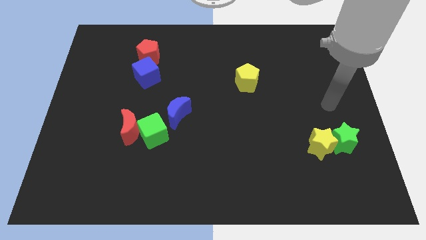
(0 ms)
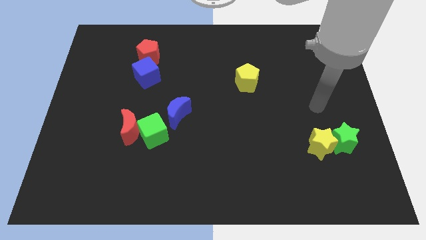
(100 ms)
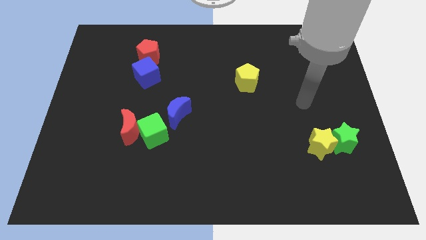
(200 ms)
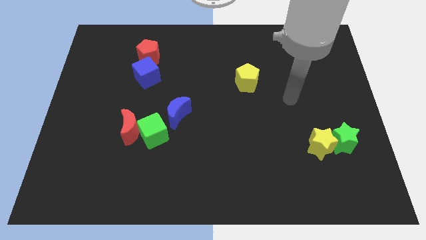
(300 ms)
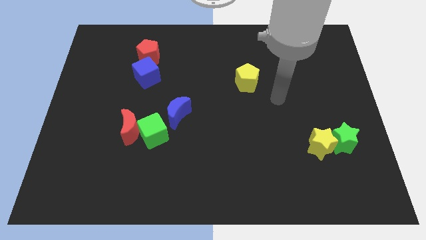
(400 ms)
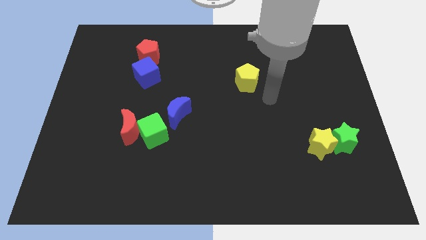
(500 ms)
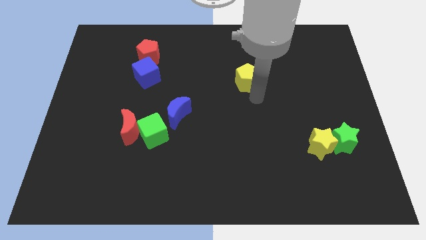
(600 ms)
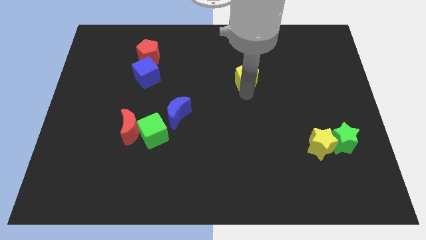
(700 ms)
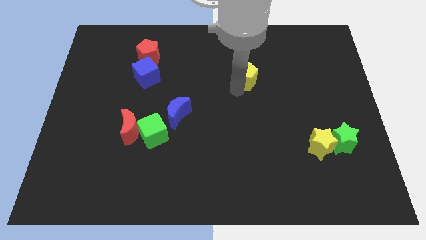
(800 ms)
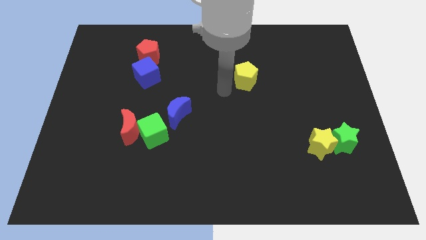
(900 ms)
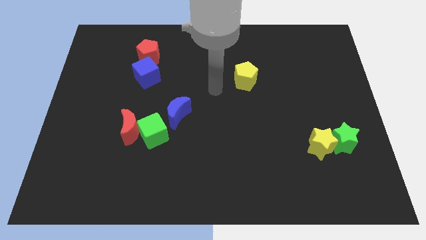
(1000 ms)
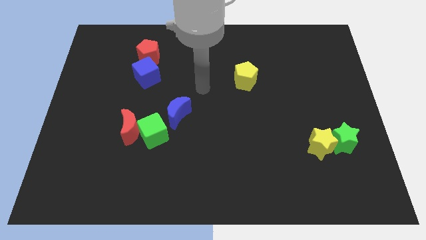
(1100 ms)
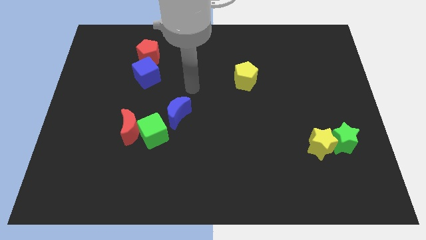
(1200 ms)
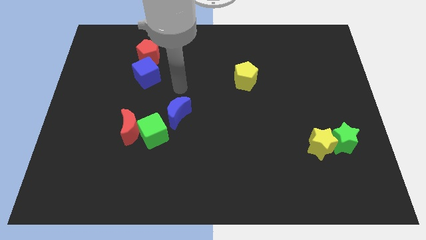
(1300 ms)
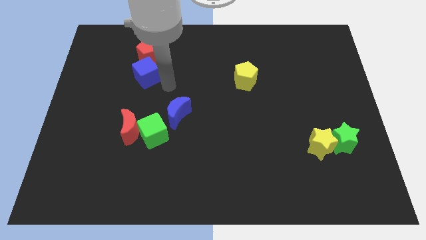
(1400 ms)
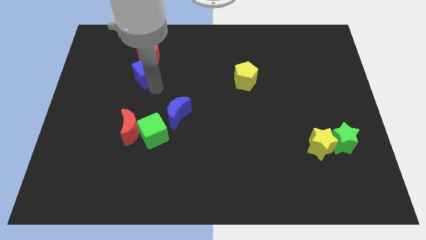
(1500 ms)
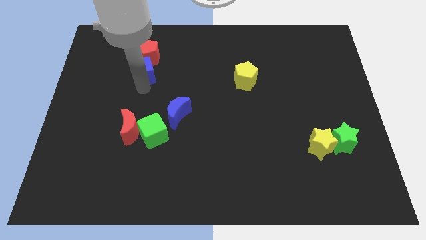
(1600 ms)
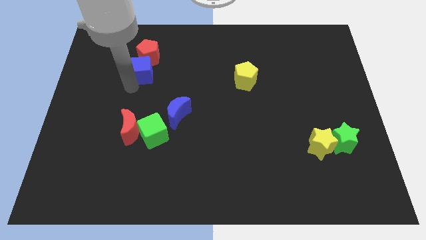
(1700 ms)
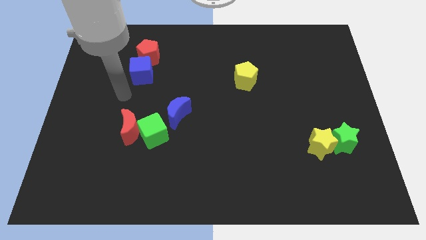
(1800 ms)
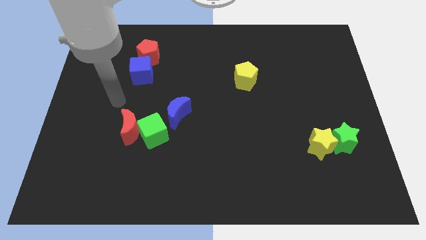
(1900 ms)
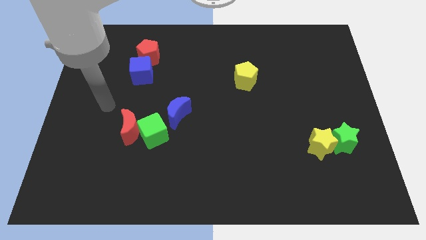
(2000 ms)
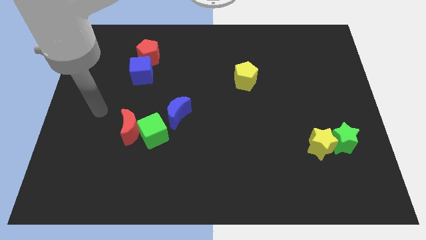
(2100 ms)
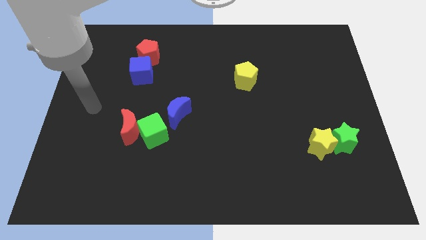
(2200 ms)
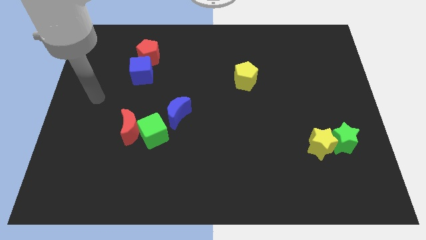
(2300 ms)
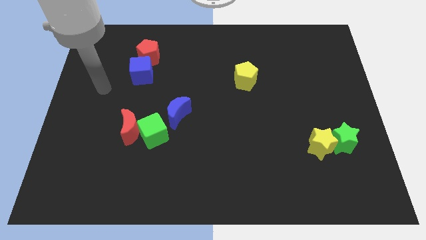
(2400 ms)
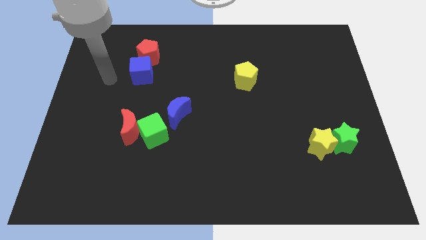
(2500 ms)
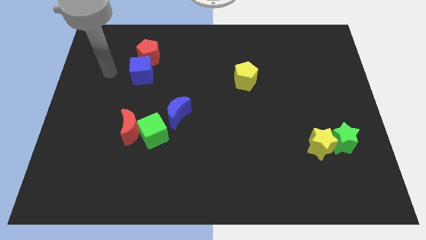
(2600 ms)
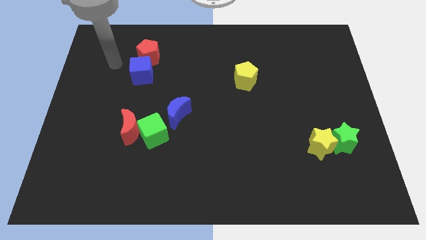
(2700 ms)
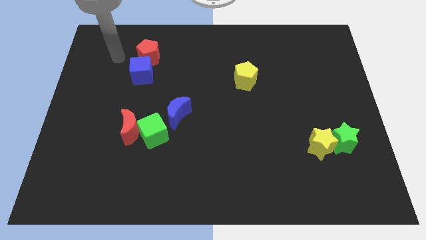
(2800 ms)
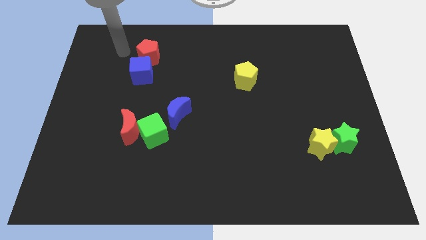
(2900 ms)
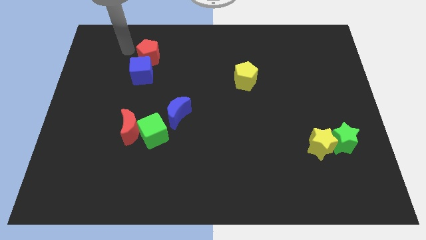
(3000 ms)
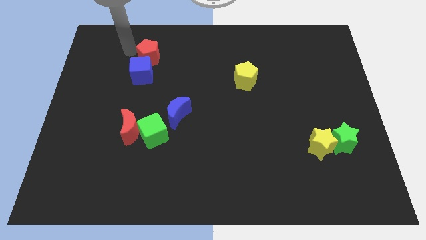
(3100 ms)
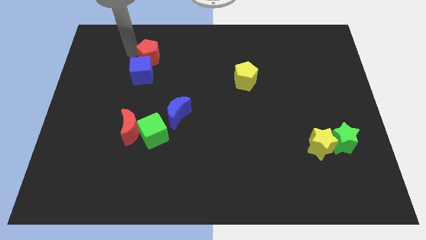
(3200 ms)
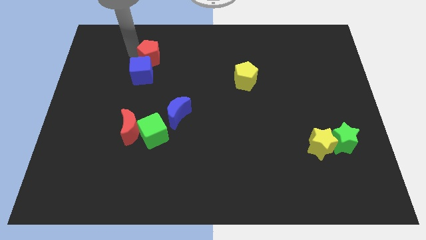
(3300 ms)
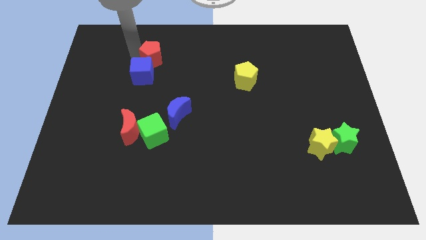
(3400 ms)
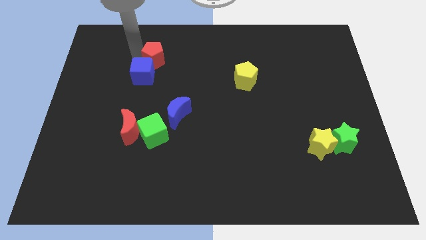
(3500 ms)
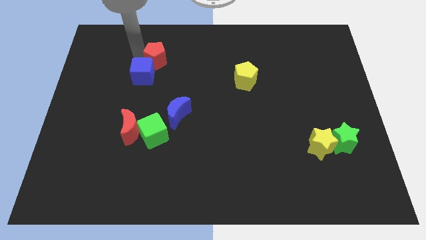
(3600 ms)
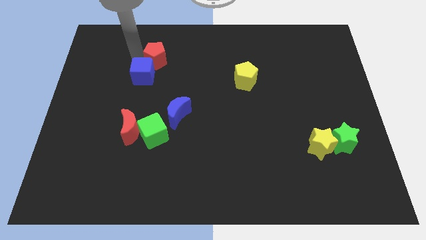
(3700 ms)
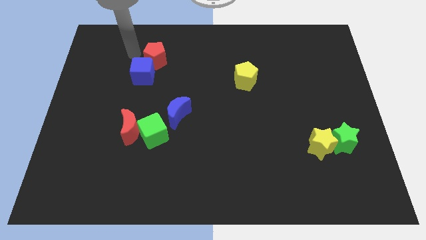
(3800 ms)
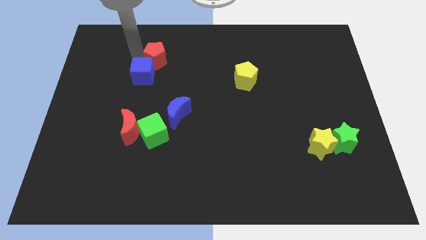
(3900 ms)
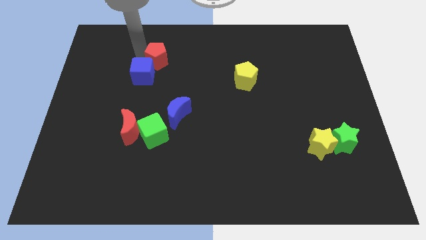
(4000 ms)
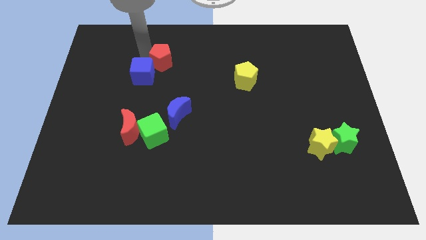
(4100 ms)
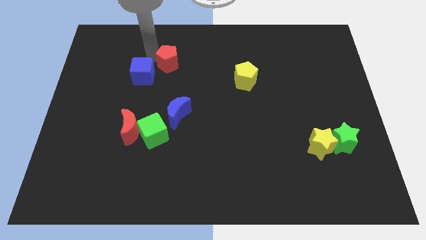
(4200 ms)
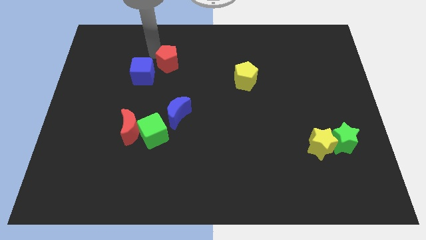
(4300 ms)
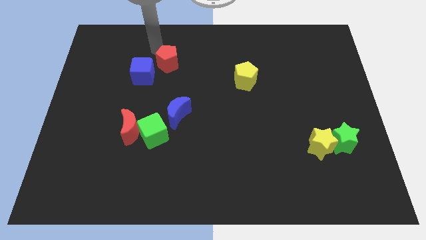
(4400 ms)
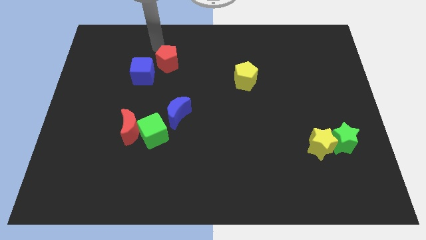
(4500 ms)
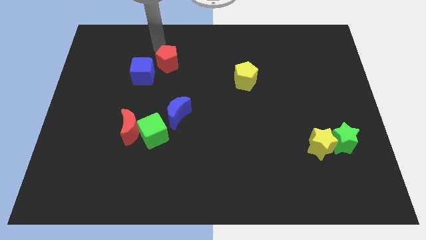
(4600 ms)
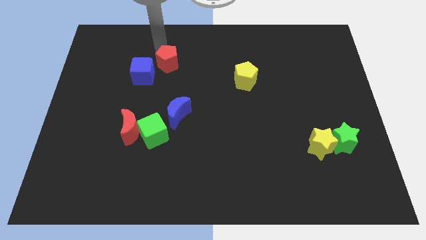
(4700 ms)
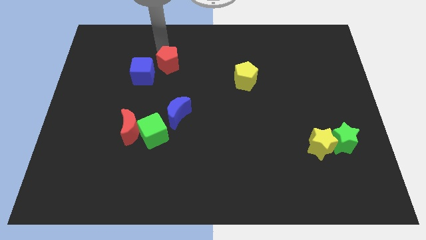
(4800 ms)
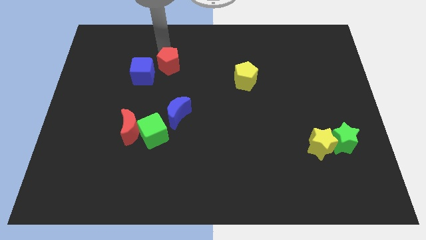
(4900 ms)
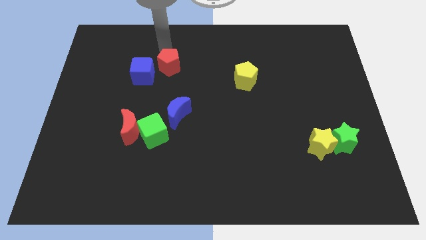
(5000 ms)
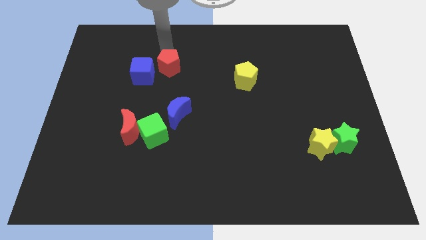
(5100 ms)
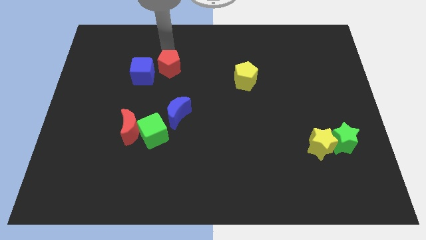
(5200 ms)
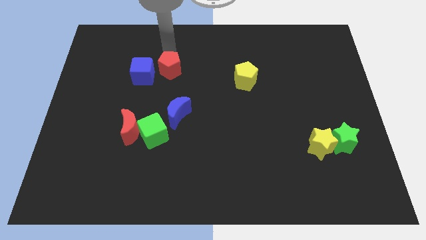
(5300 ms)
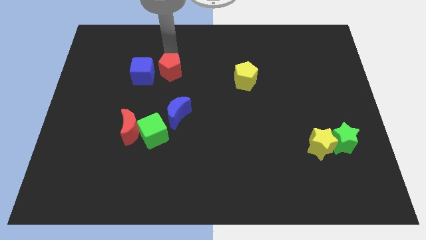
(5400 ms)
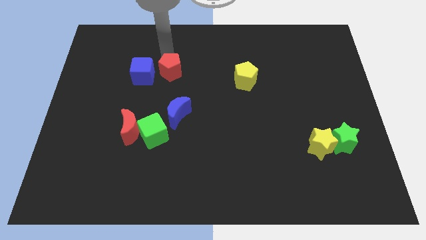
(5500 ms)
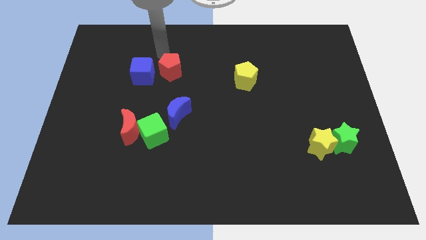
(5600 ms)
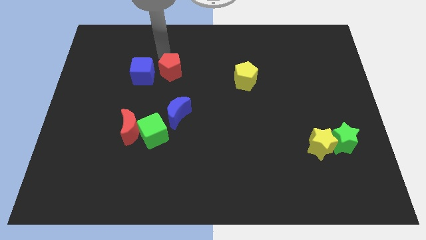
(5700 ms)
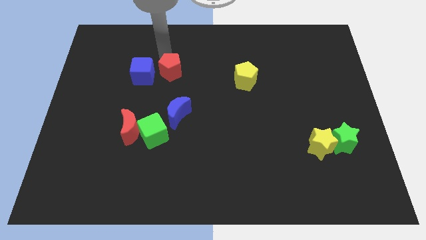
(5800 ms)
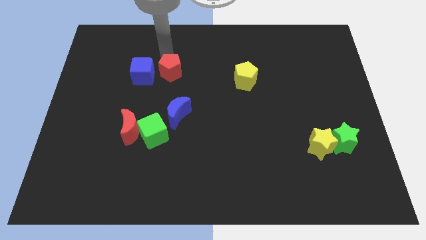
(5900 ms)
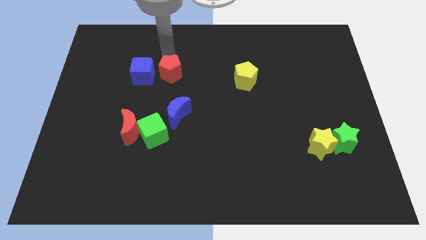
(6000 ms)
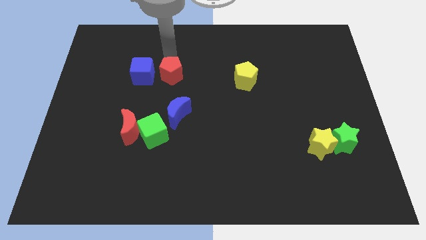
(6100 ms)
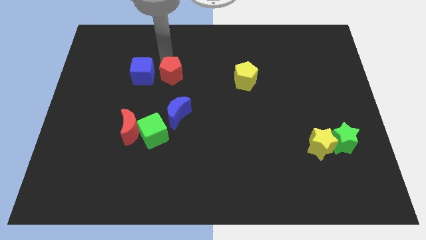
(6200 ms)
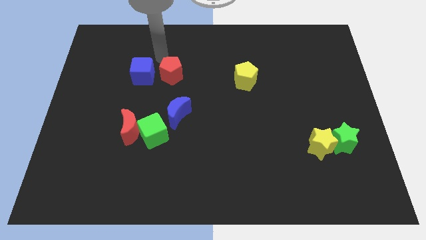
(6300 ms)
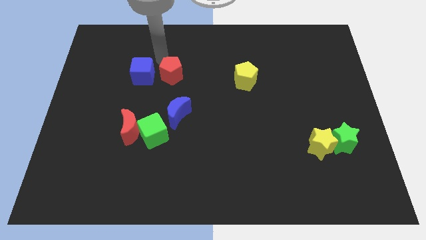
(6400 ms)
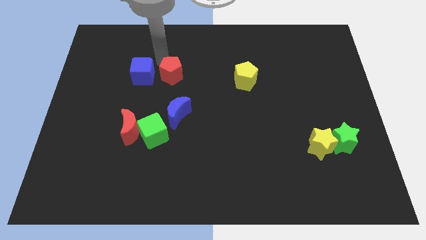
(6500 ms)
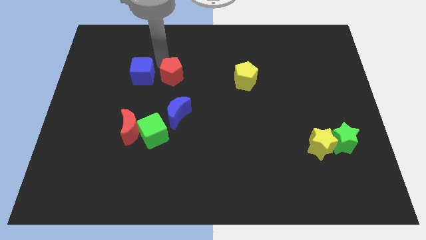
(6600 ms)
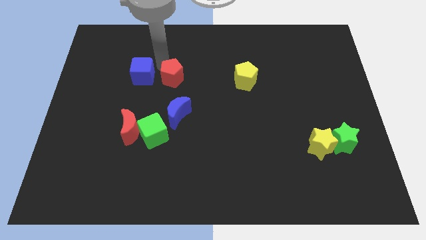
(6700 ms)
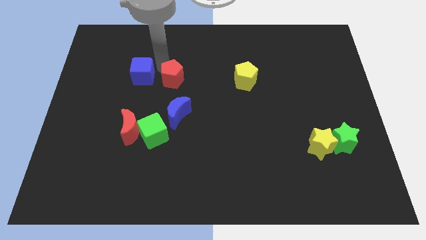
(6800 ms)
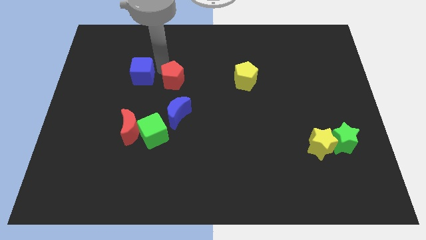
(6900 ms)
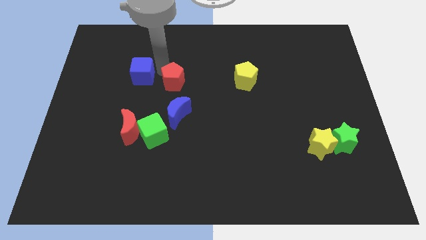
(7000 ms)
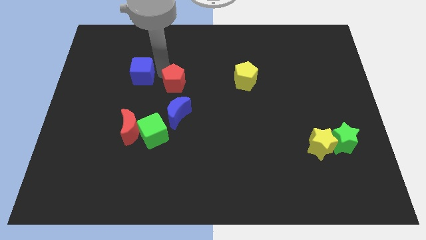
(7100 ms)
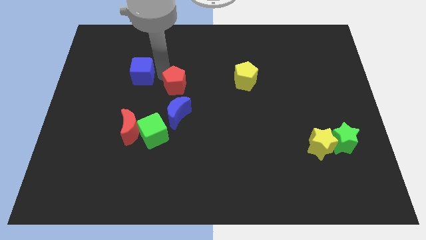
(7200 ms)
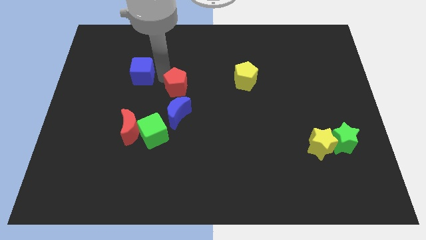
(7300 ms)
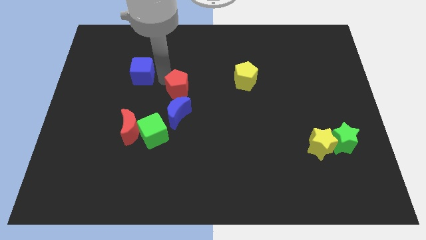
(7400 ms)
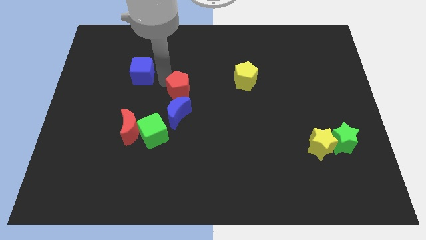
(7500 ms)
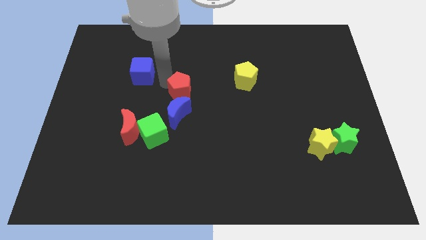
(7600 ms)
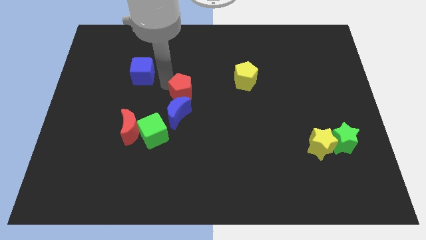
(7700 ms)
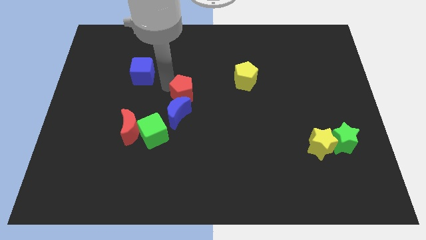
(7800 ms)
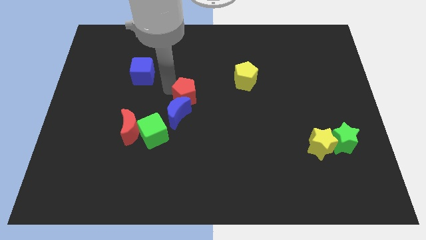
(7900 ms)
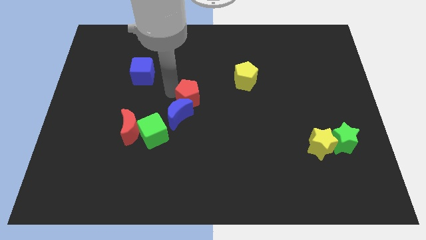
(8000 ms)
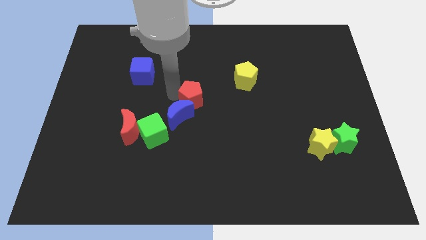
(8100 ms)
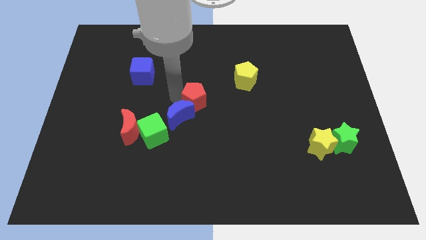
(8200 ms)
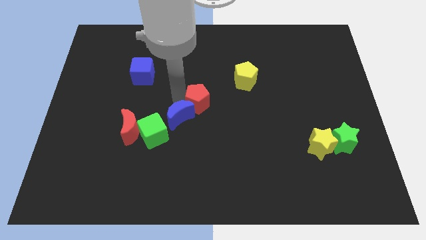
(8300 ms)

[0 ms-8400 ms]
push the red pentagon downwards and right
